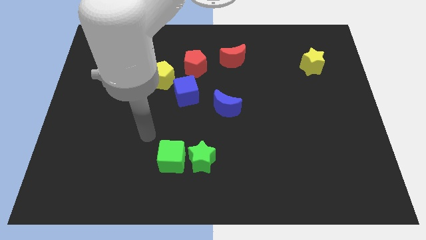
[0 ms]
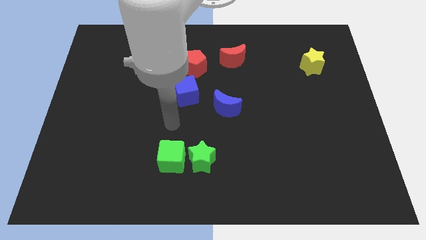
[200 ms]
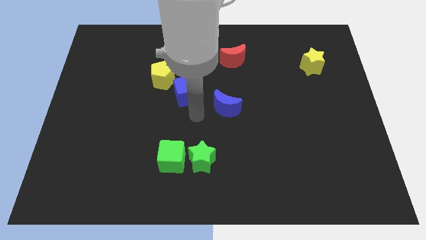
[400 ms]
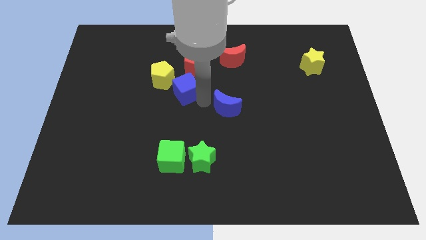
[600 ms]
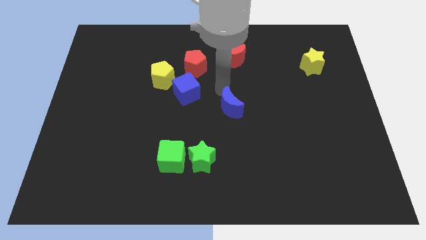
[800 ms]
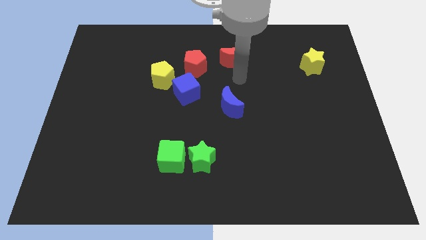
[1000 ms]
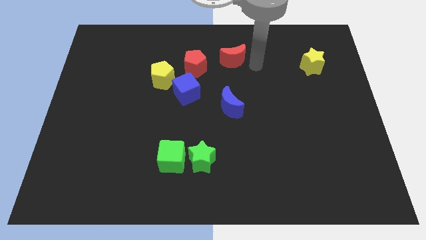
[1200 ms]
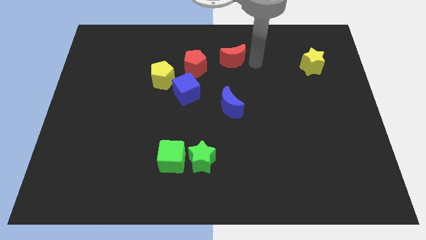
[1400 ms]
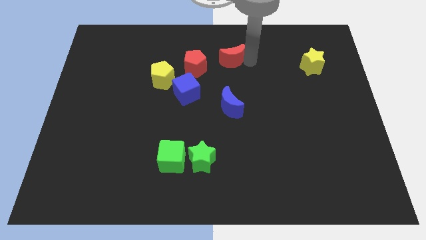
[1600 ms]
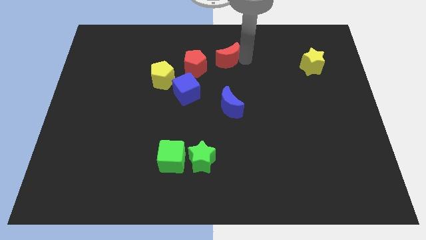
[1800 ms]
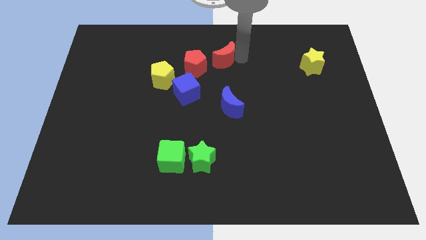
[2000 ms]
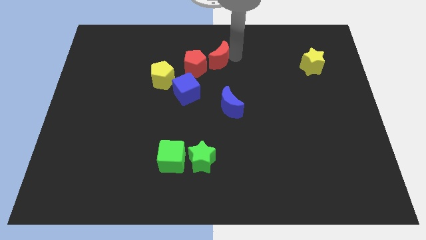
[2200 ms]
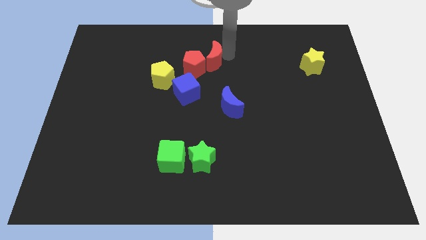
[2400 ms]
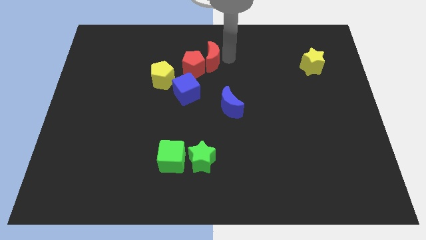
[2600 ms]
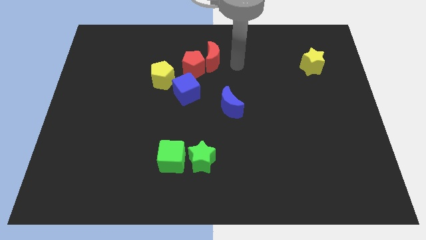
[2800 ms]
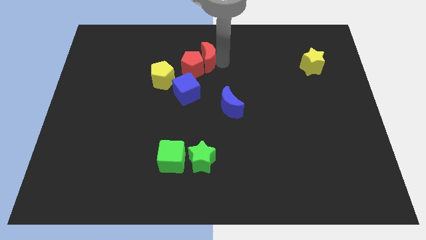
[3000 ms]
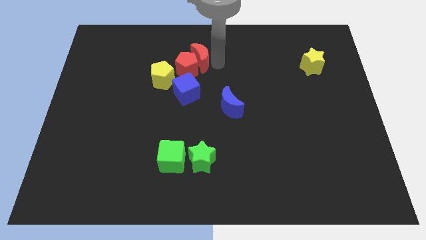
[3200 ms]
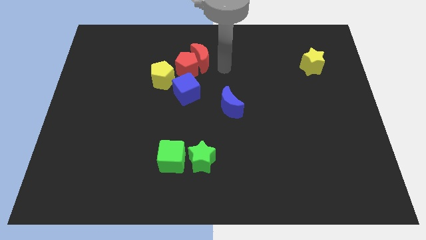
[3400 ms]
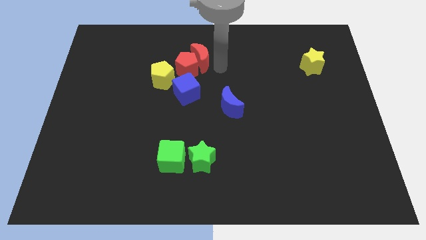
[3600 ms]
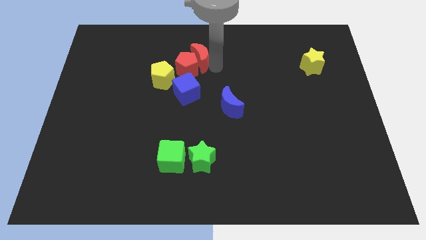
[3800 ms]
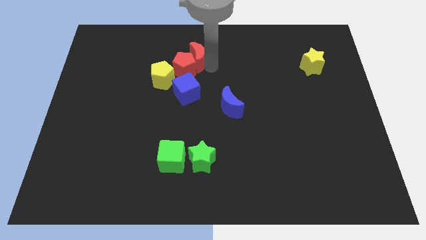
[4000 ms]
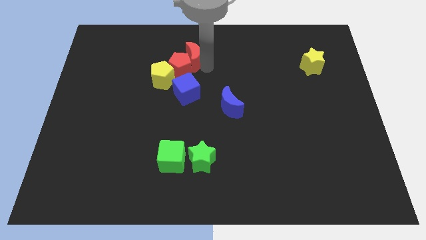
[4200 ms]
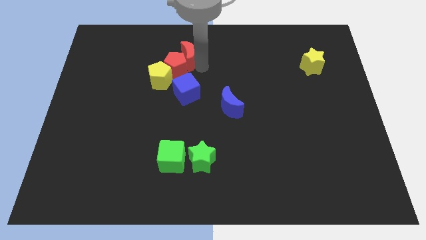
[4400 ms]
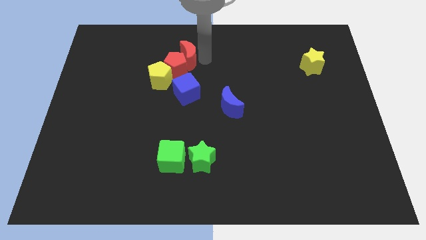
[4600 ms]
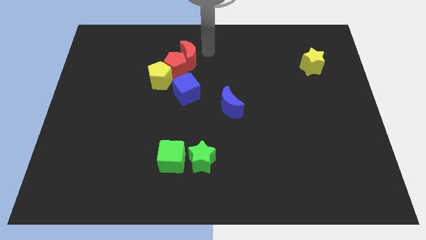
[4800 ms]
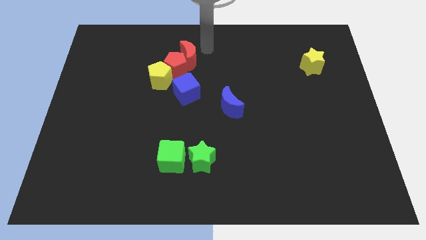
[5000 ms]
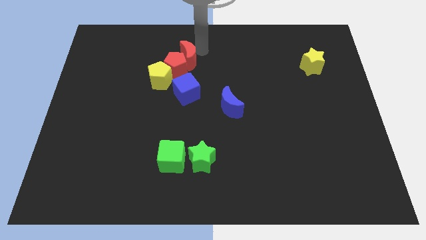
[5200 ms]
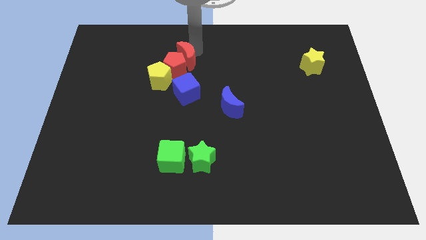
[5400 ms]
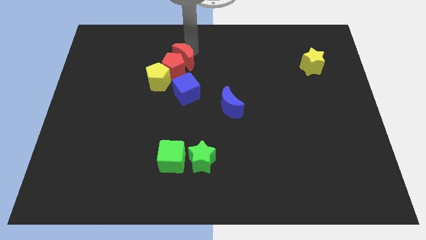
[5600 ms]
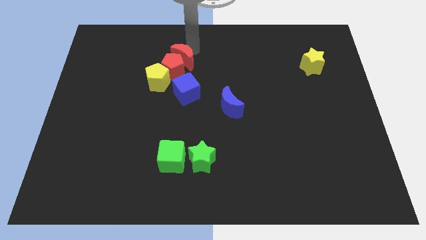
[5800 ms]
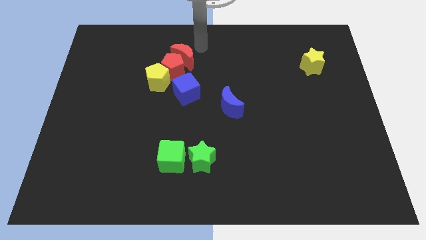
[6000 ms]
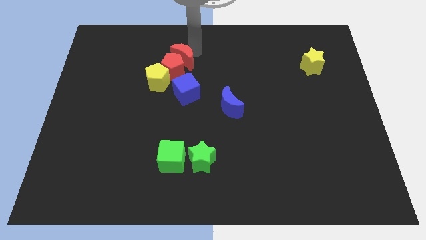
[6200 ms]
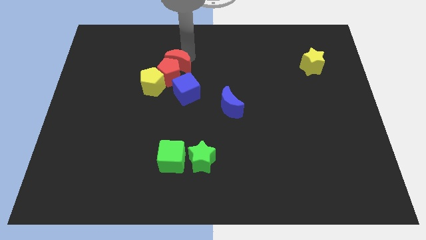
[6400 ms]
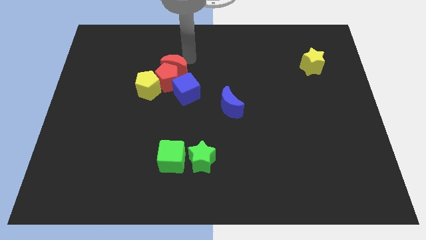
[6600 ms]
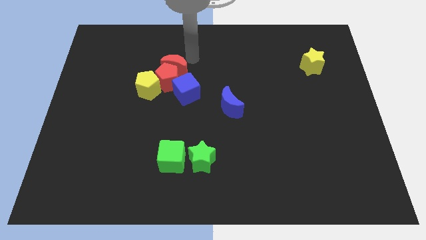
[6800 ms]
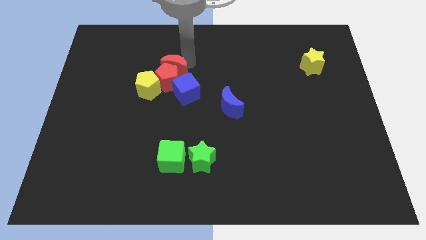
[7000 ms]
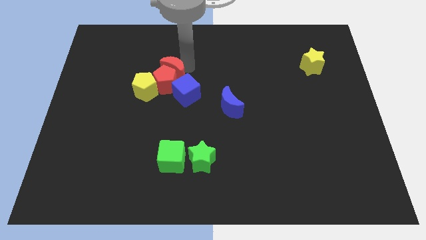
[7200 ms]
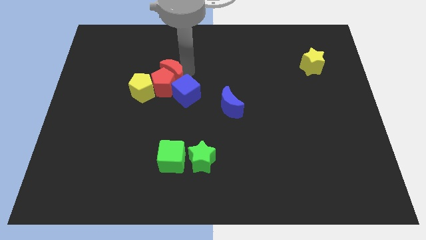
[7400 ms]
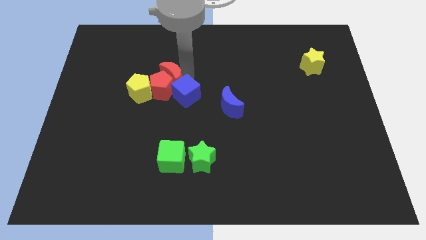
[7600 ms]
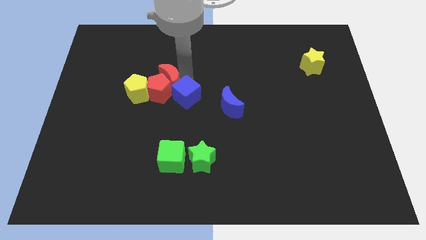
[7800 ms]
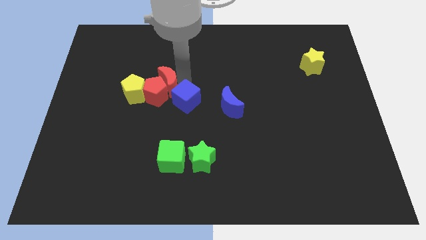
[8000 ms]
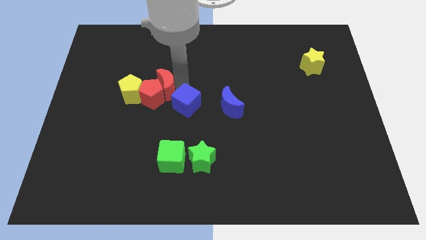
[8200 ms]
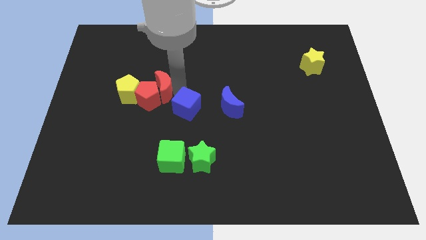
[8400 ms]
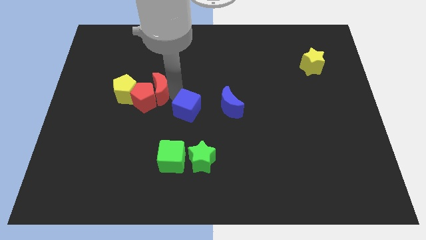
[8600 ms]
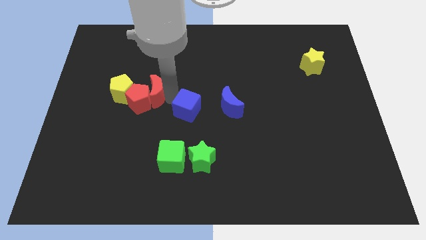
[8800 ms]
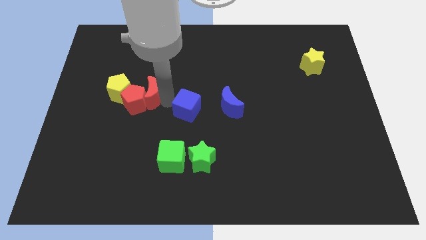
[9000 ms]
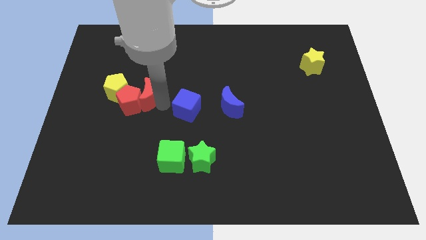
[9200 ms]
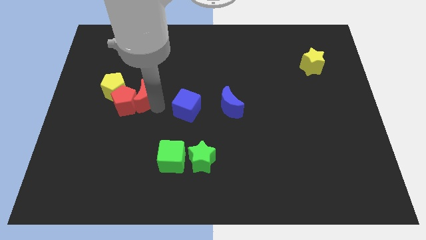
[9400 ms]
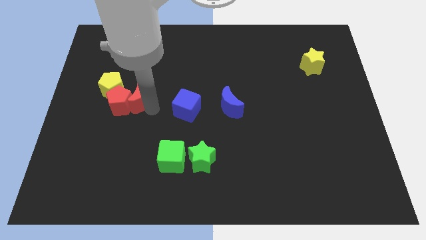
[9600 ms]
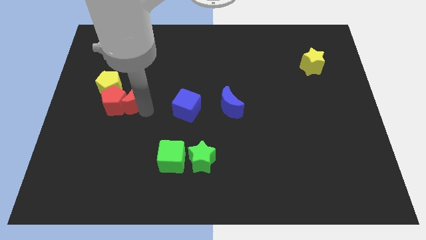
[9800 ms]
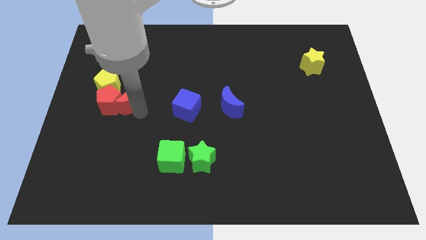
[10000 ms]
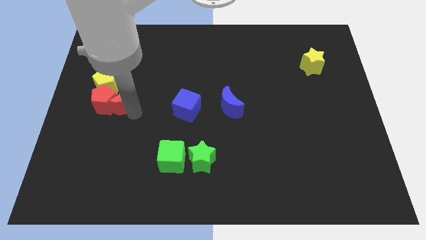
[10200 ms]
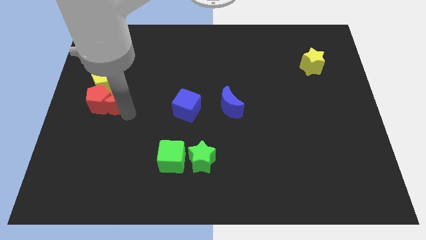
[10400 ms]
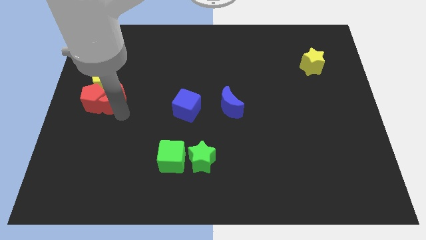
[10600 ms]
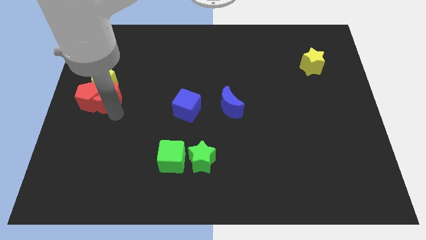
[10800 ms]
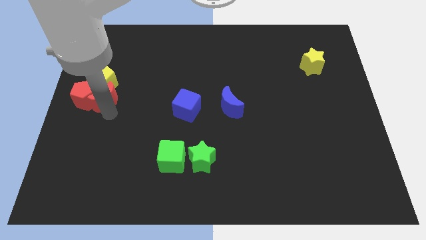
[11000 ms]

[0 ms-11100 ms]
push the red moon close to the yellow pentagon

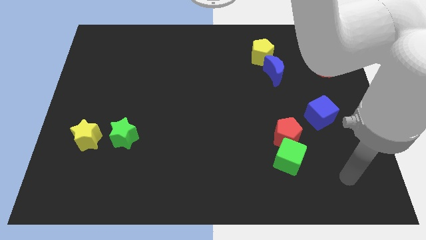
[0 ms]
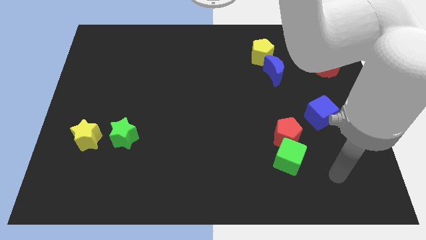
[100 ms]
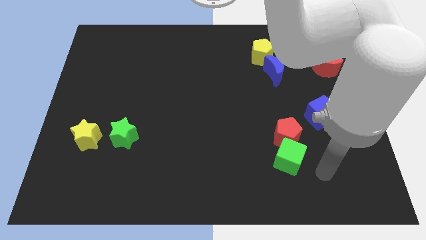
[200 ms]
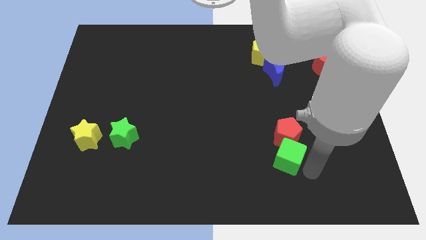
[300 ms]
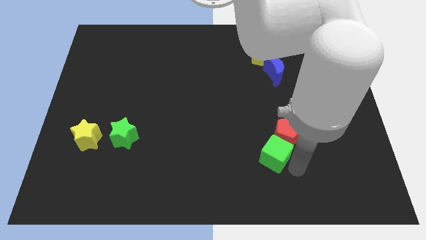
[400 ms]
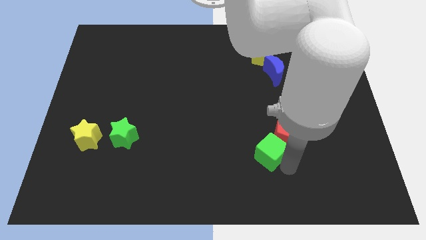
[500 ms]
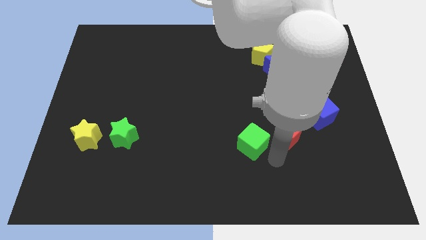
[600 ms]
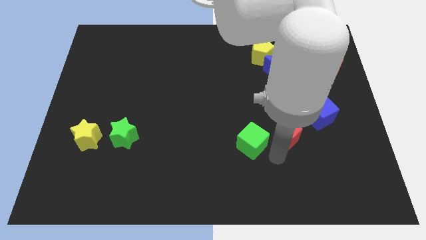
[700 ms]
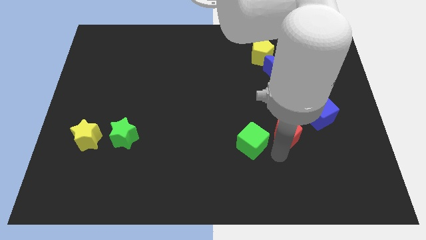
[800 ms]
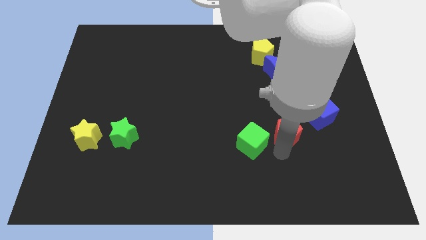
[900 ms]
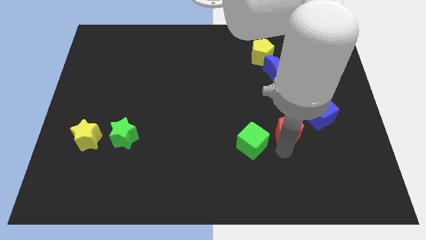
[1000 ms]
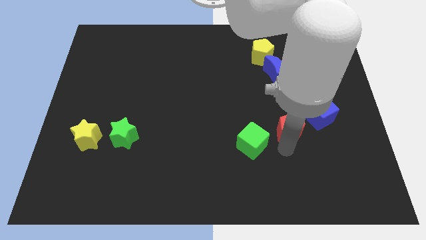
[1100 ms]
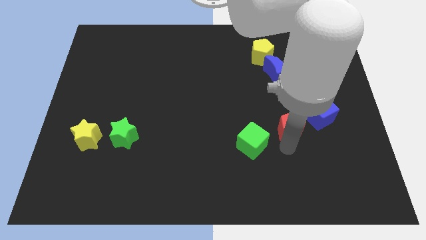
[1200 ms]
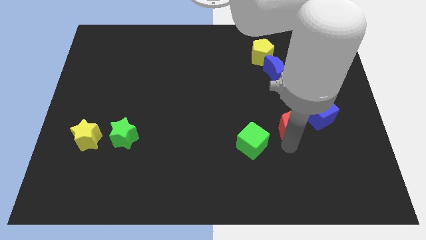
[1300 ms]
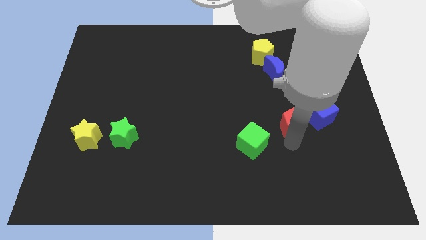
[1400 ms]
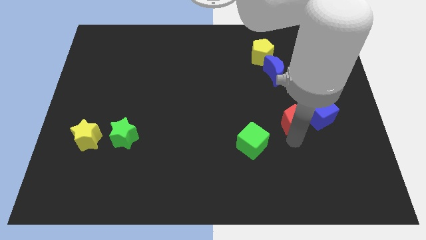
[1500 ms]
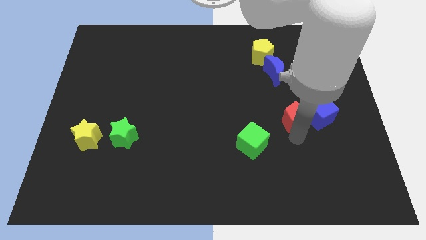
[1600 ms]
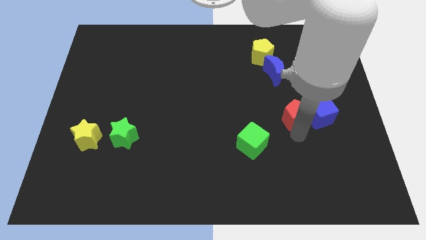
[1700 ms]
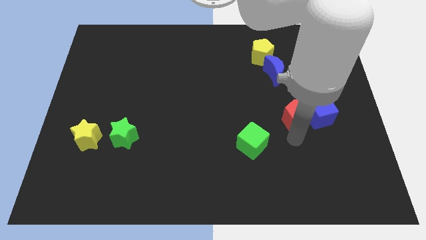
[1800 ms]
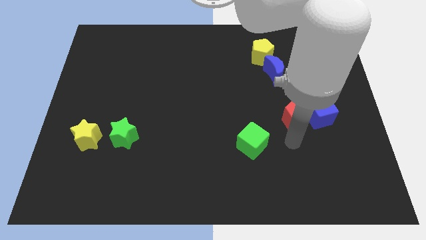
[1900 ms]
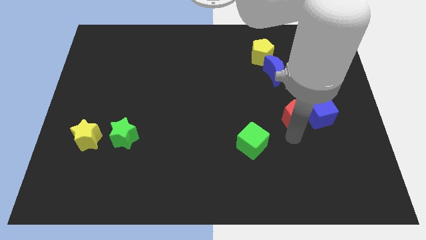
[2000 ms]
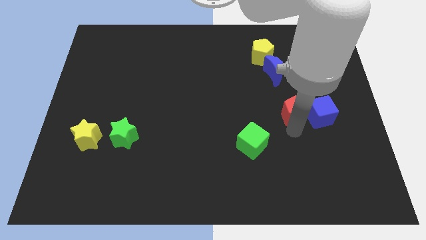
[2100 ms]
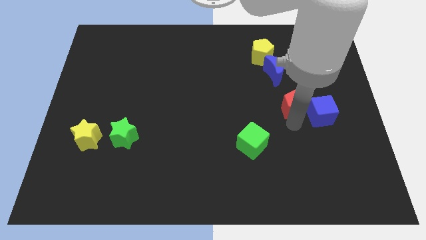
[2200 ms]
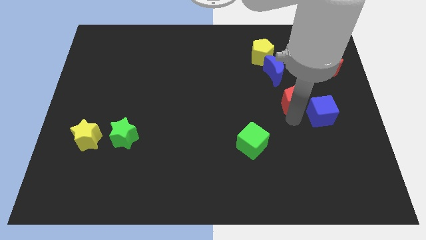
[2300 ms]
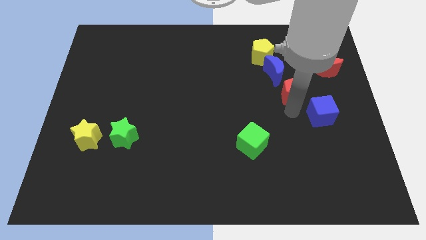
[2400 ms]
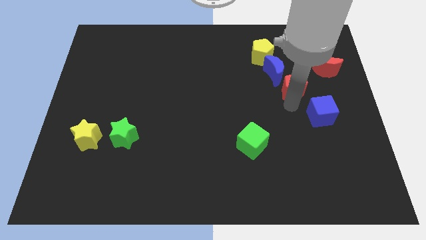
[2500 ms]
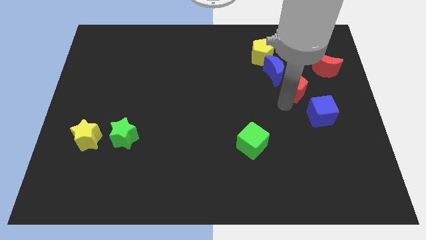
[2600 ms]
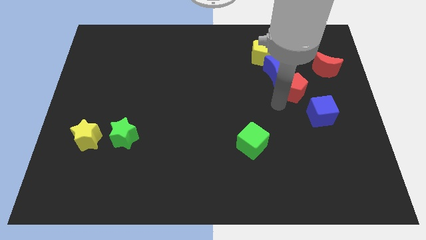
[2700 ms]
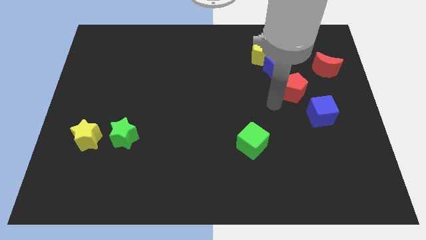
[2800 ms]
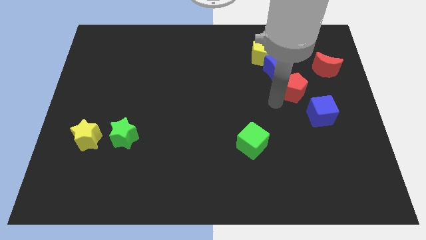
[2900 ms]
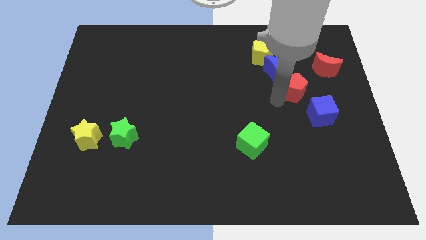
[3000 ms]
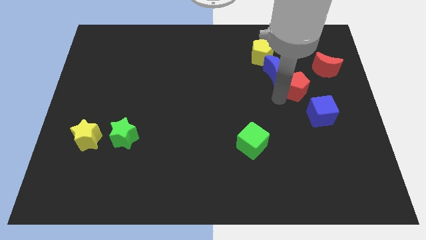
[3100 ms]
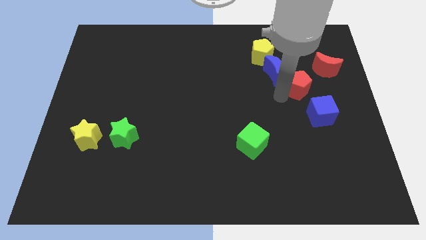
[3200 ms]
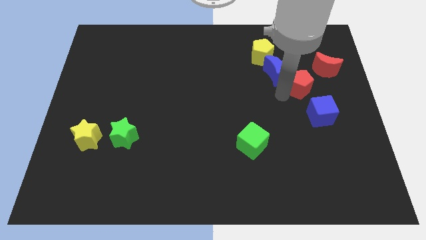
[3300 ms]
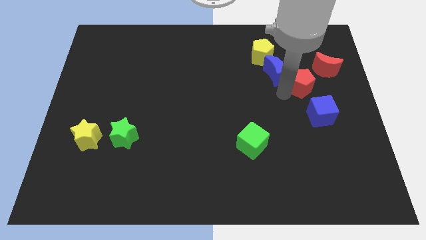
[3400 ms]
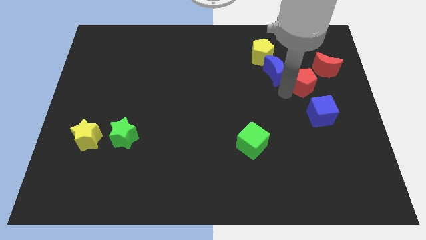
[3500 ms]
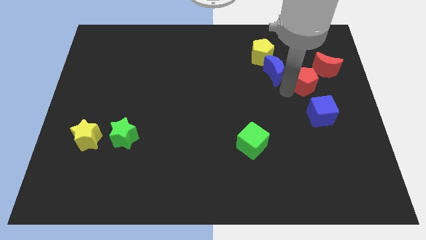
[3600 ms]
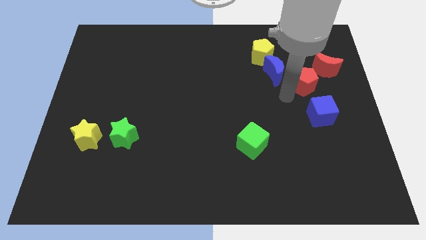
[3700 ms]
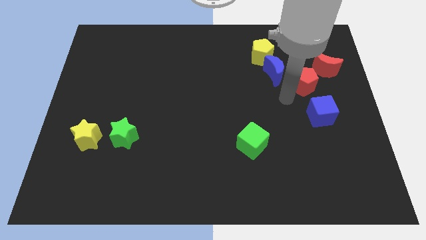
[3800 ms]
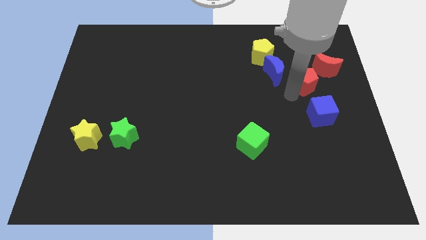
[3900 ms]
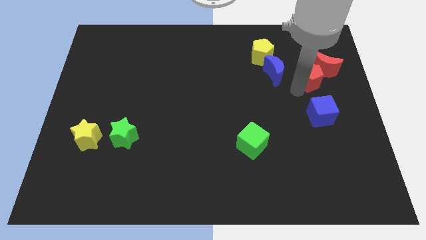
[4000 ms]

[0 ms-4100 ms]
move the red pentagon next to the red moon
